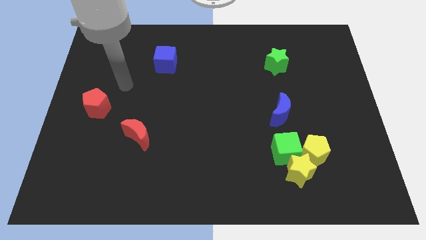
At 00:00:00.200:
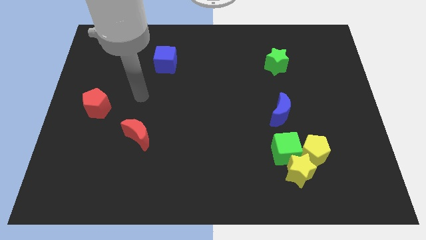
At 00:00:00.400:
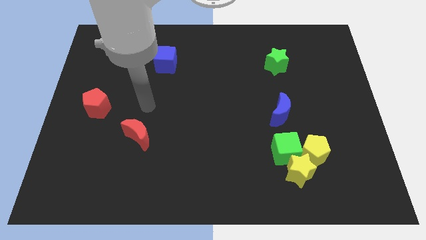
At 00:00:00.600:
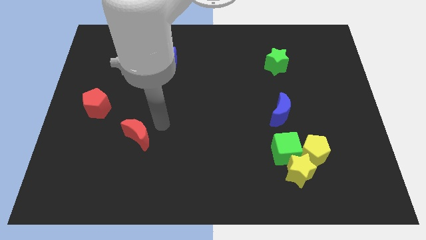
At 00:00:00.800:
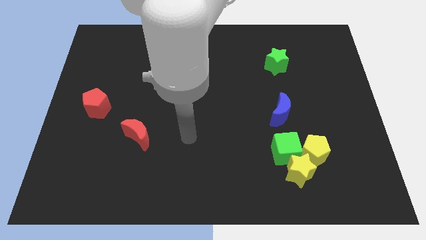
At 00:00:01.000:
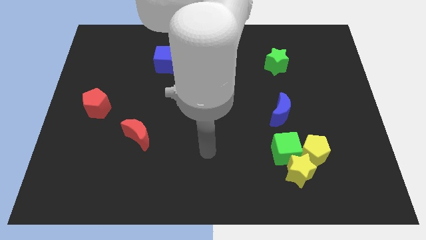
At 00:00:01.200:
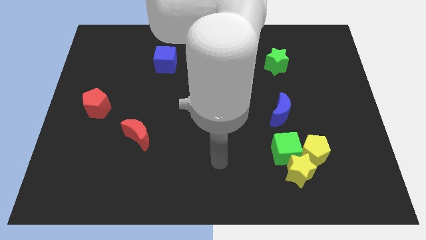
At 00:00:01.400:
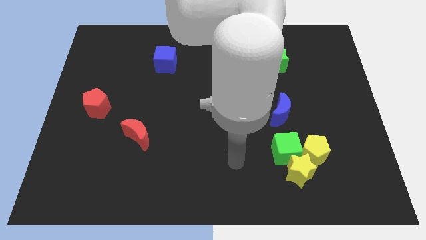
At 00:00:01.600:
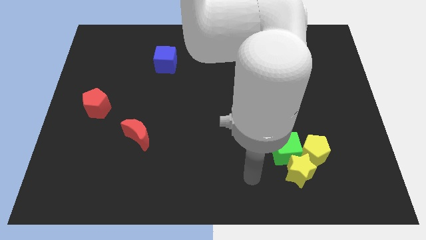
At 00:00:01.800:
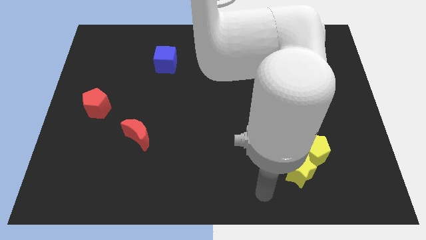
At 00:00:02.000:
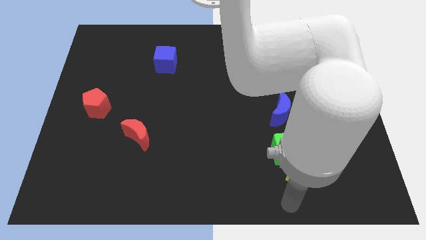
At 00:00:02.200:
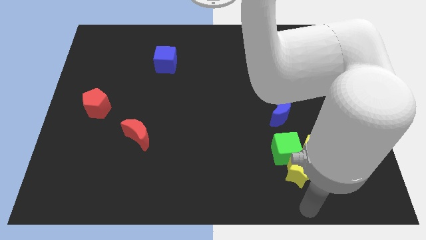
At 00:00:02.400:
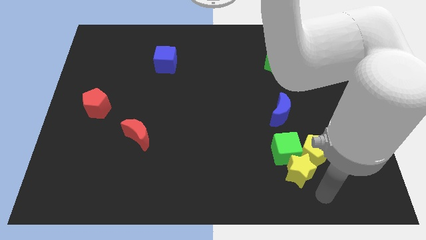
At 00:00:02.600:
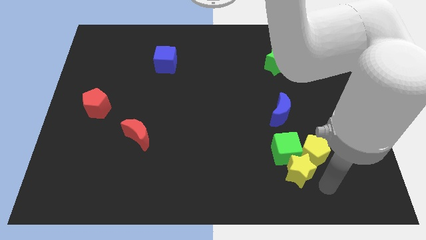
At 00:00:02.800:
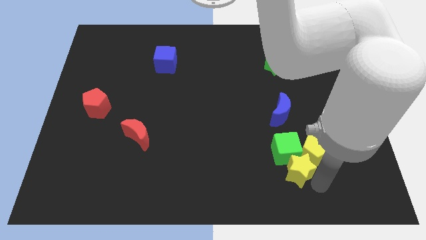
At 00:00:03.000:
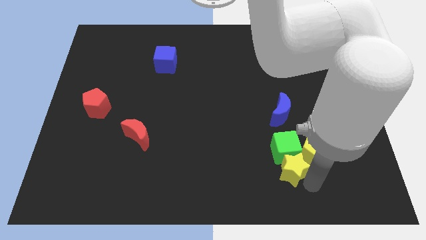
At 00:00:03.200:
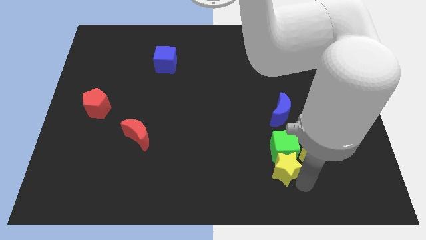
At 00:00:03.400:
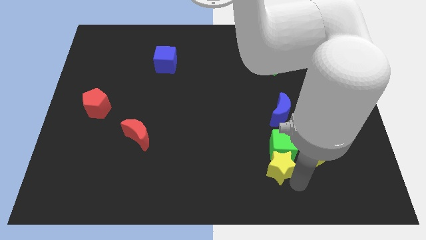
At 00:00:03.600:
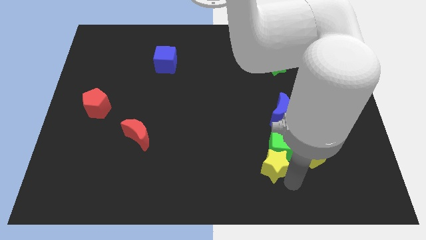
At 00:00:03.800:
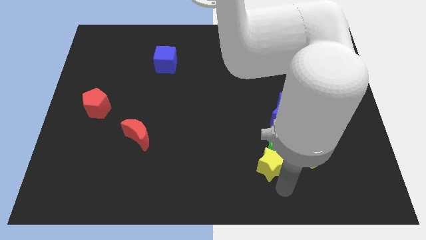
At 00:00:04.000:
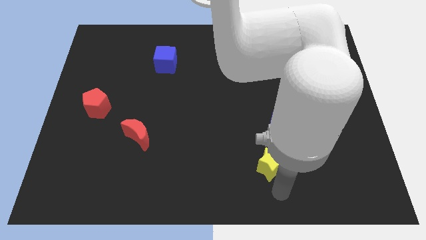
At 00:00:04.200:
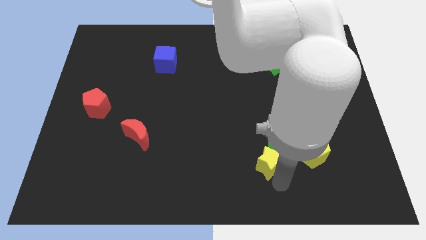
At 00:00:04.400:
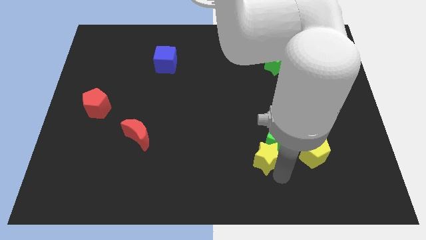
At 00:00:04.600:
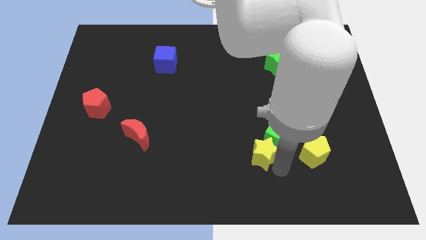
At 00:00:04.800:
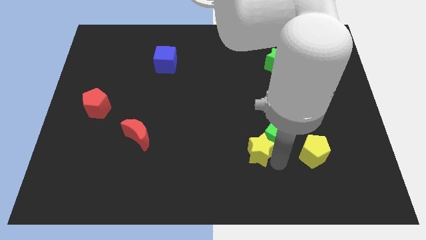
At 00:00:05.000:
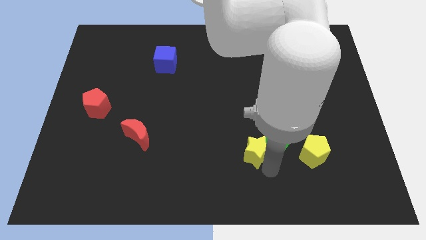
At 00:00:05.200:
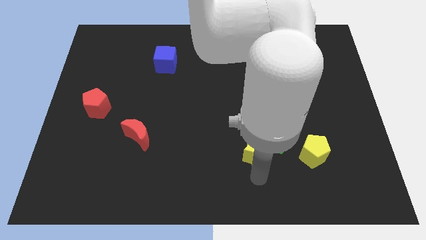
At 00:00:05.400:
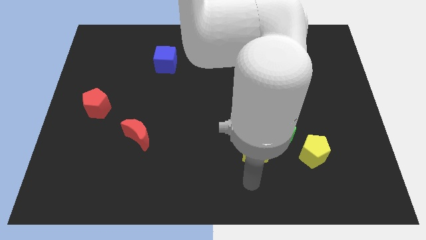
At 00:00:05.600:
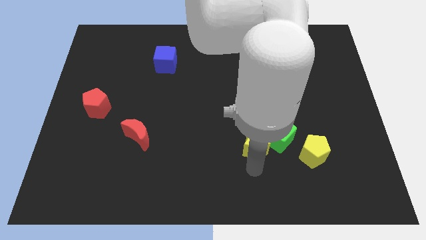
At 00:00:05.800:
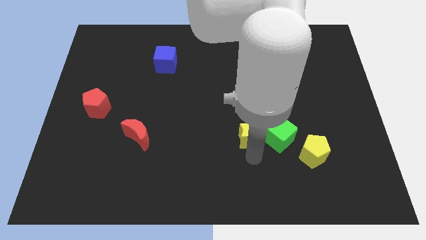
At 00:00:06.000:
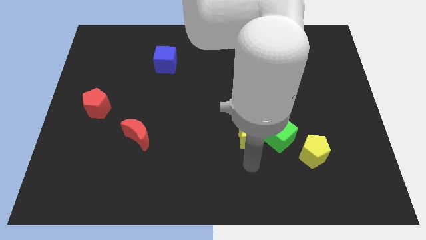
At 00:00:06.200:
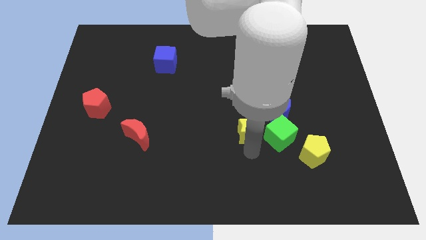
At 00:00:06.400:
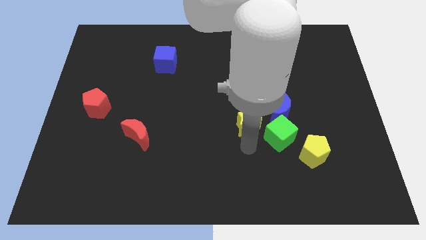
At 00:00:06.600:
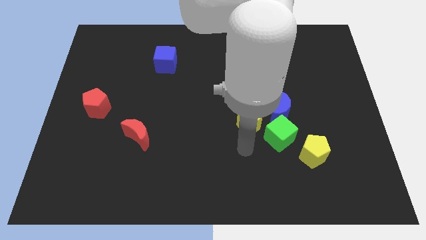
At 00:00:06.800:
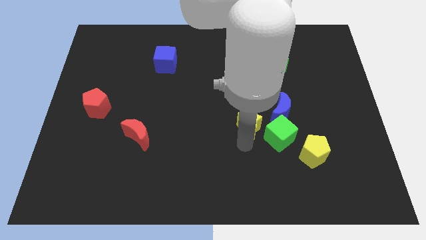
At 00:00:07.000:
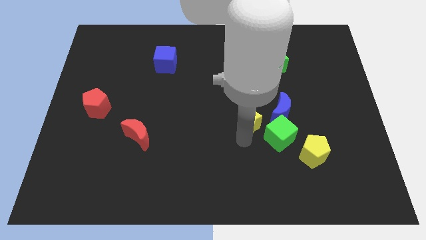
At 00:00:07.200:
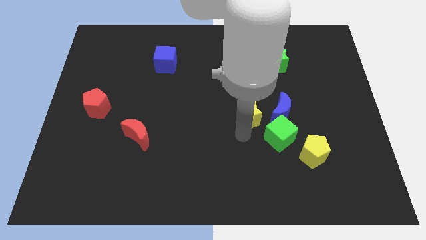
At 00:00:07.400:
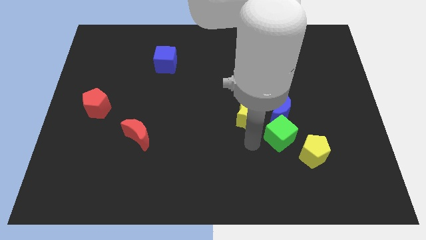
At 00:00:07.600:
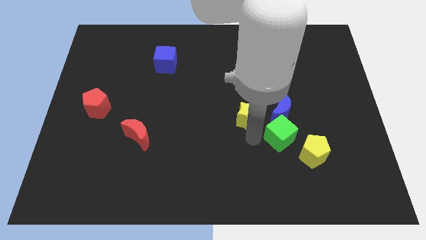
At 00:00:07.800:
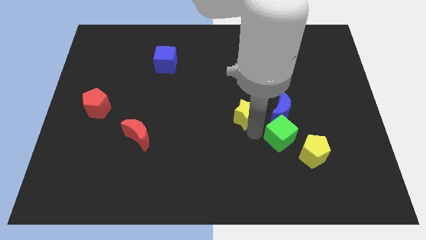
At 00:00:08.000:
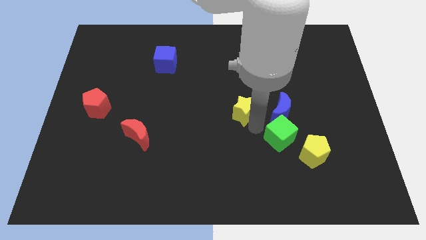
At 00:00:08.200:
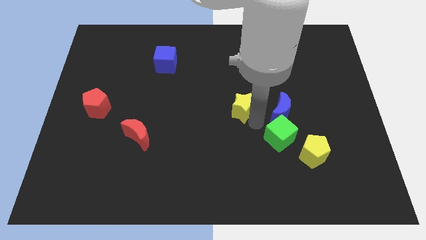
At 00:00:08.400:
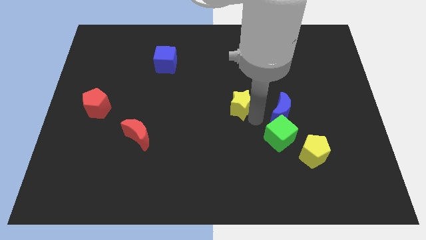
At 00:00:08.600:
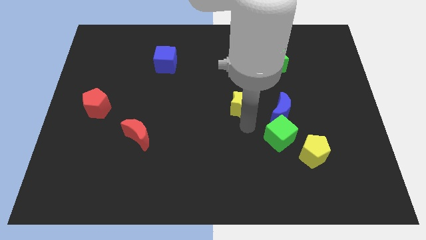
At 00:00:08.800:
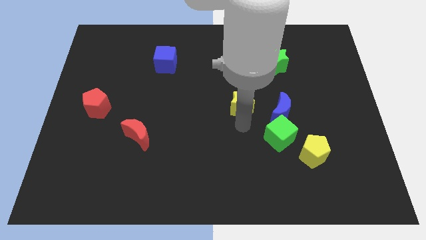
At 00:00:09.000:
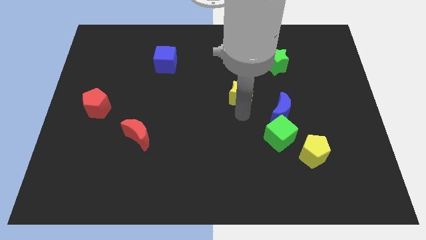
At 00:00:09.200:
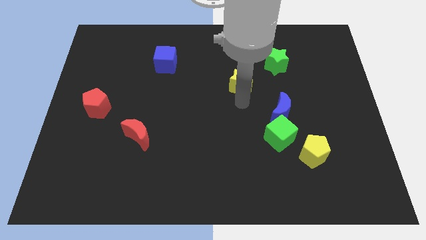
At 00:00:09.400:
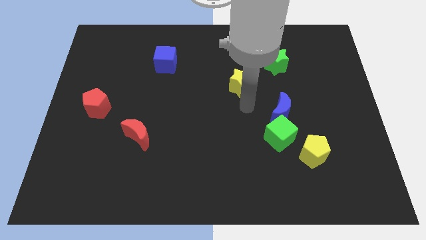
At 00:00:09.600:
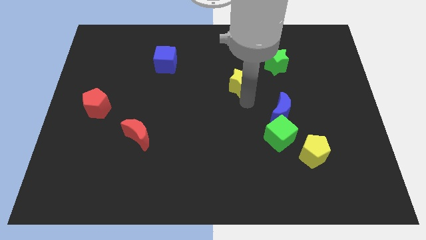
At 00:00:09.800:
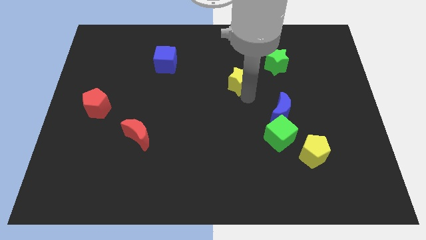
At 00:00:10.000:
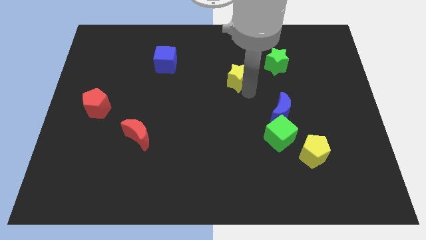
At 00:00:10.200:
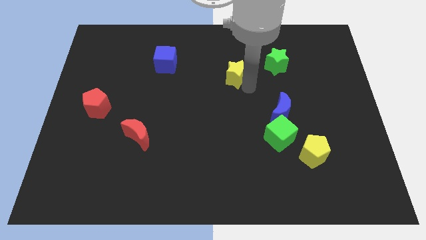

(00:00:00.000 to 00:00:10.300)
push the yellow star left of the green star

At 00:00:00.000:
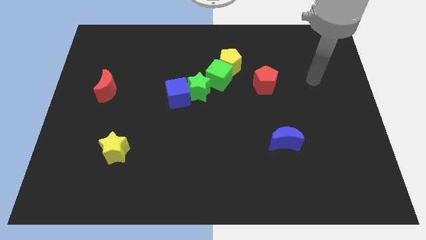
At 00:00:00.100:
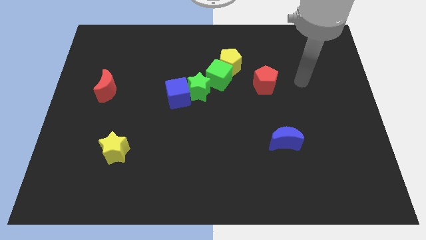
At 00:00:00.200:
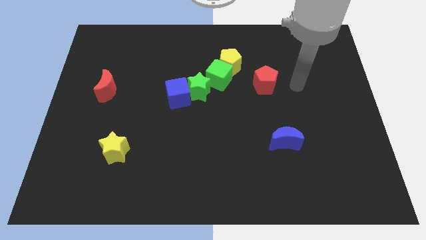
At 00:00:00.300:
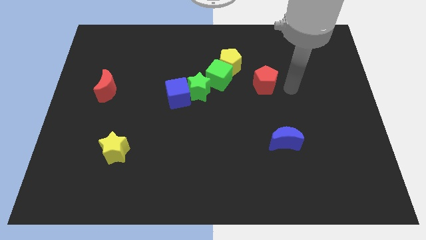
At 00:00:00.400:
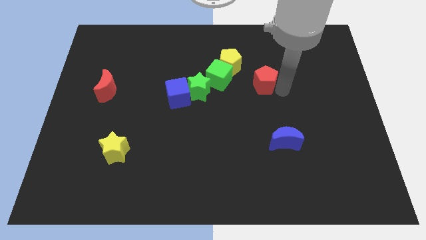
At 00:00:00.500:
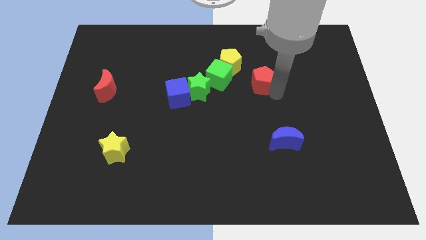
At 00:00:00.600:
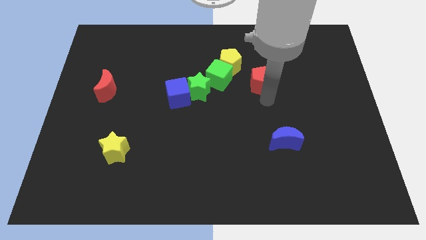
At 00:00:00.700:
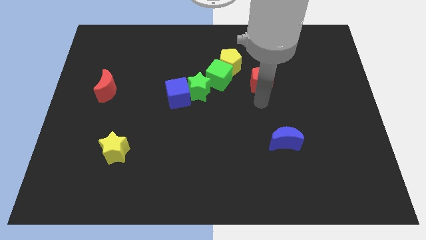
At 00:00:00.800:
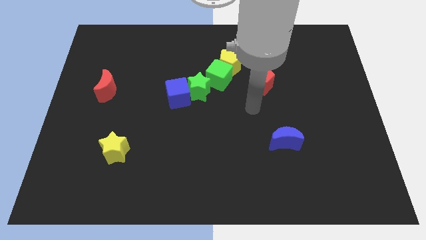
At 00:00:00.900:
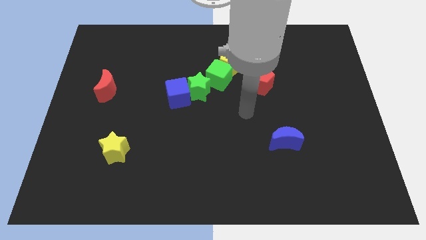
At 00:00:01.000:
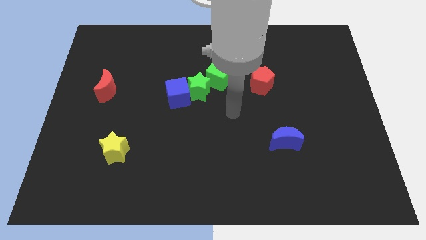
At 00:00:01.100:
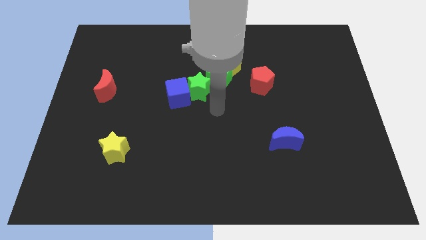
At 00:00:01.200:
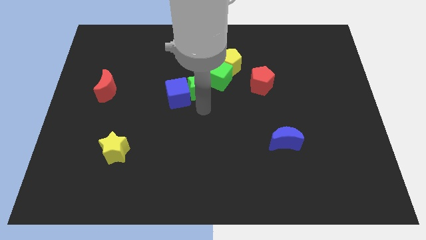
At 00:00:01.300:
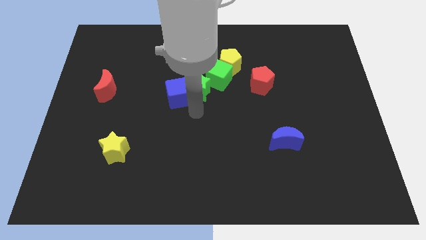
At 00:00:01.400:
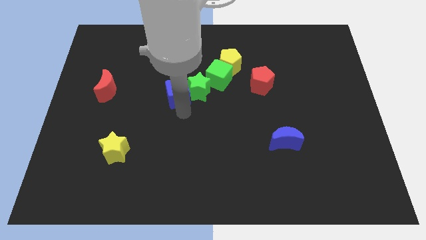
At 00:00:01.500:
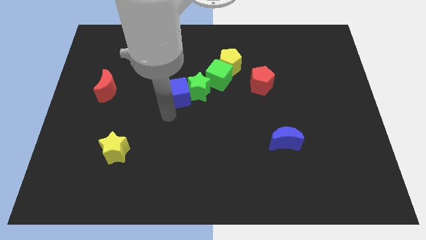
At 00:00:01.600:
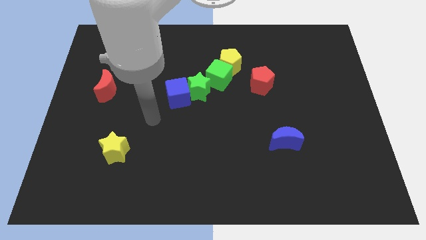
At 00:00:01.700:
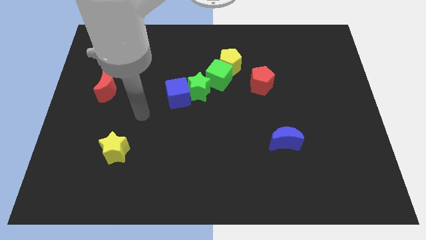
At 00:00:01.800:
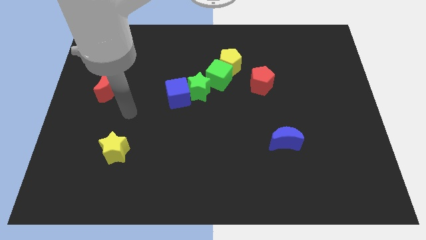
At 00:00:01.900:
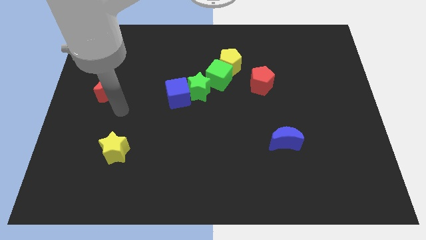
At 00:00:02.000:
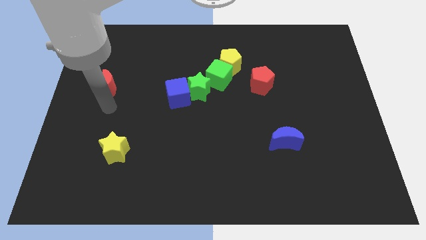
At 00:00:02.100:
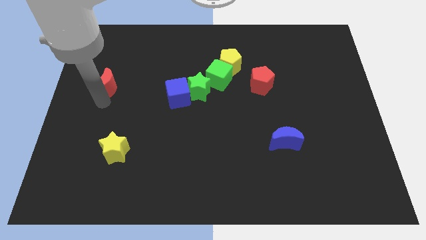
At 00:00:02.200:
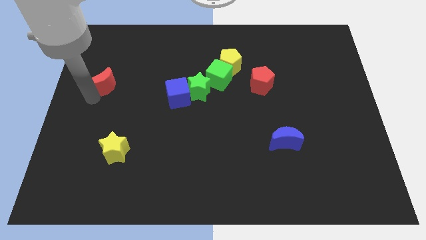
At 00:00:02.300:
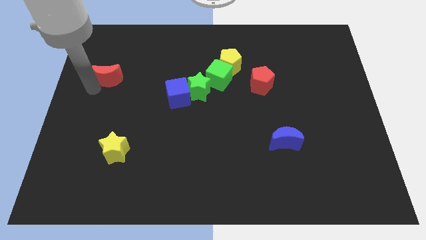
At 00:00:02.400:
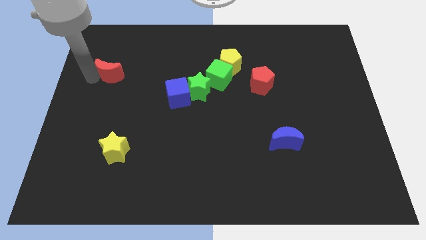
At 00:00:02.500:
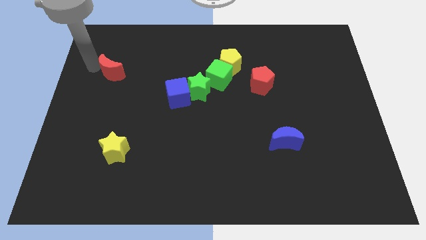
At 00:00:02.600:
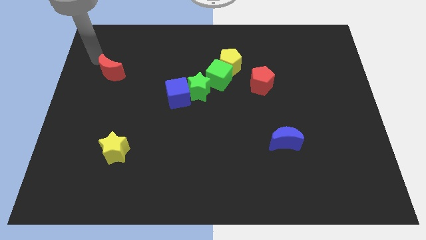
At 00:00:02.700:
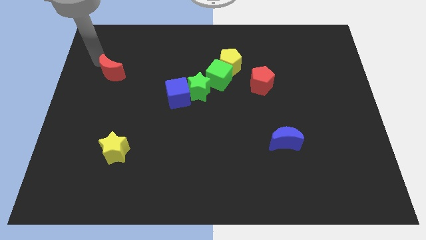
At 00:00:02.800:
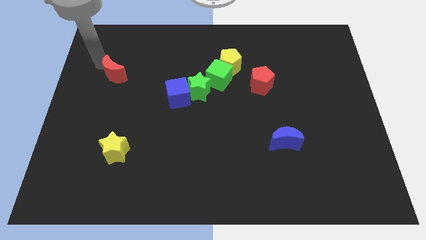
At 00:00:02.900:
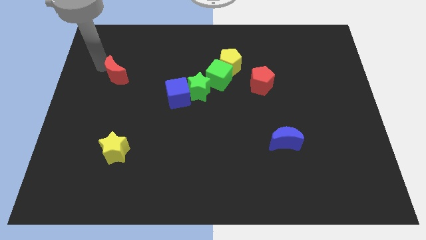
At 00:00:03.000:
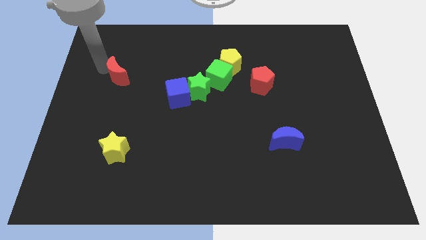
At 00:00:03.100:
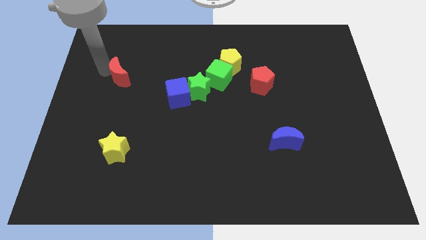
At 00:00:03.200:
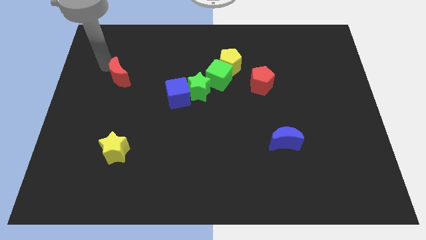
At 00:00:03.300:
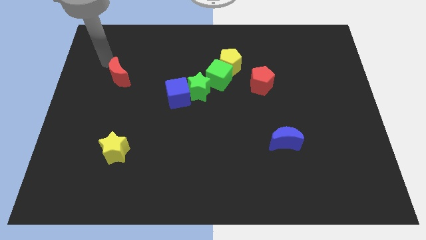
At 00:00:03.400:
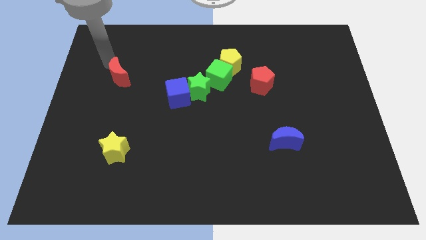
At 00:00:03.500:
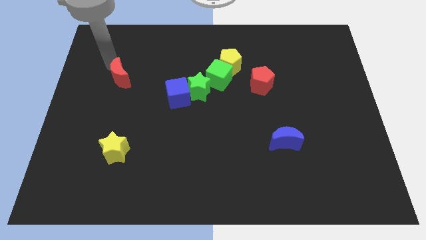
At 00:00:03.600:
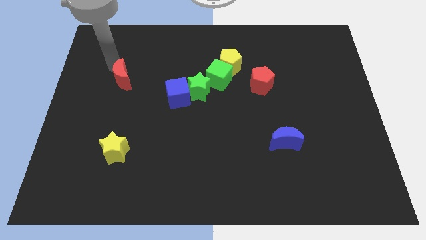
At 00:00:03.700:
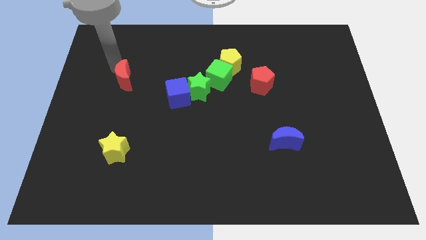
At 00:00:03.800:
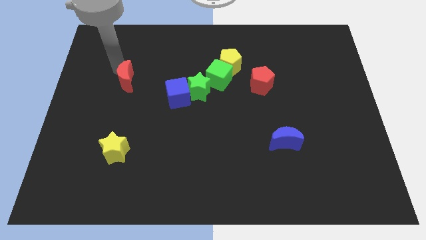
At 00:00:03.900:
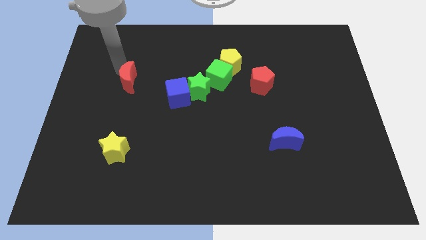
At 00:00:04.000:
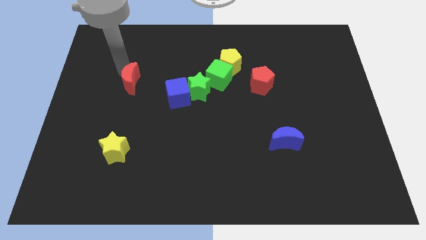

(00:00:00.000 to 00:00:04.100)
slide the red moon left of the blue cube
